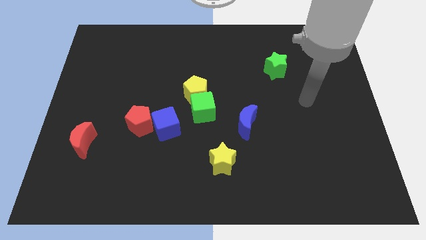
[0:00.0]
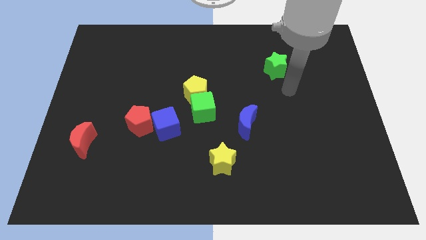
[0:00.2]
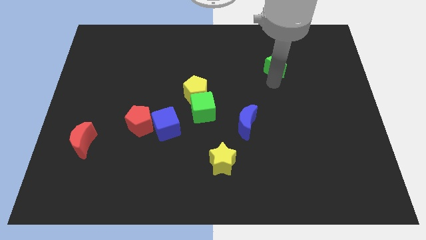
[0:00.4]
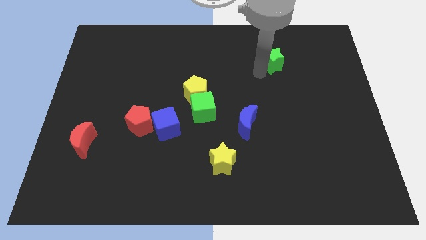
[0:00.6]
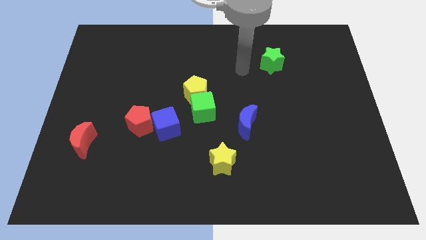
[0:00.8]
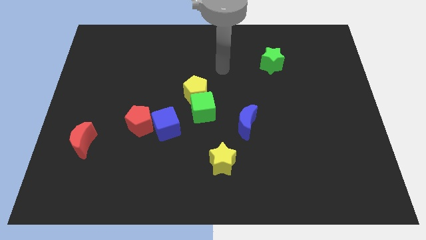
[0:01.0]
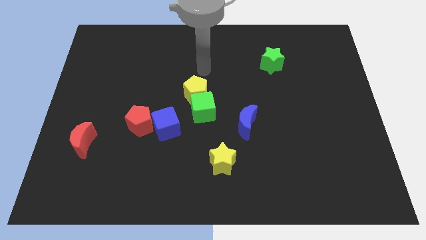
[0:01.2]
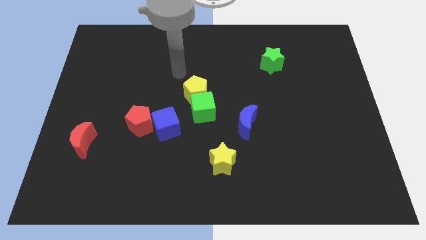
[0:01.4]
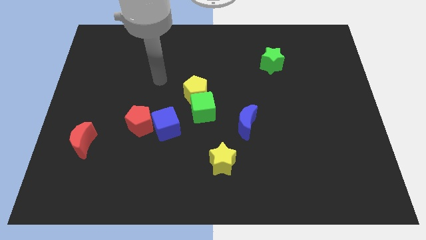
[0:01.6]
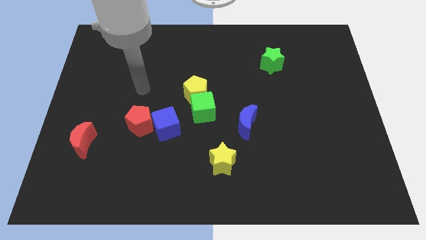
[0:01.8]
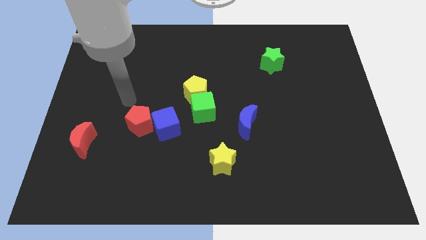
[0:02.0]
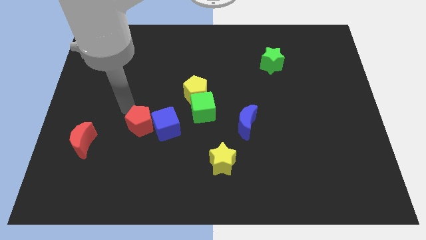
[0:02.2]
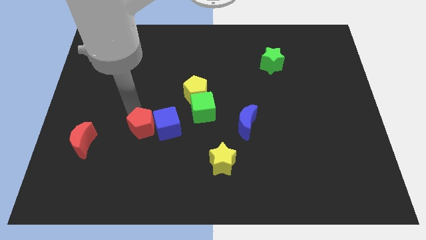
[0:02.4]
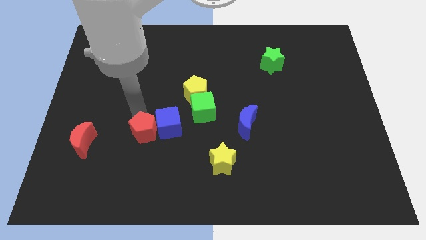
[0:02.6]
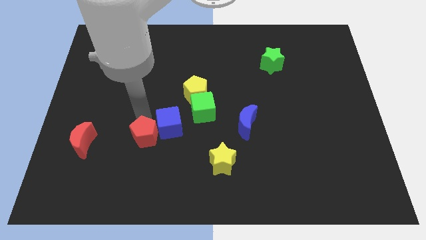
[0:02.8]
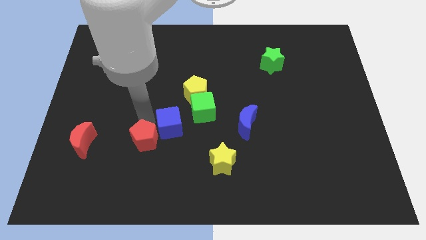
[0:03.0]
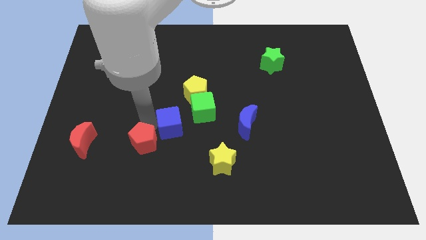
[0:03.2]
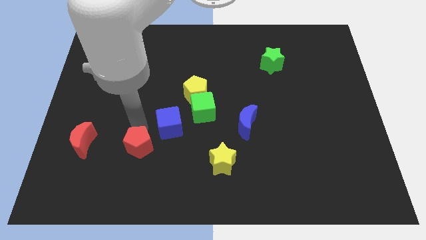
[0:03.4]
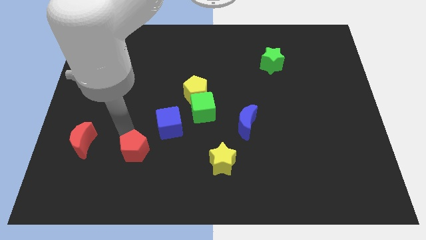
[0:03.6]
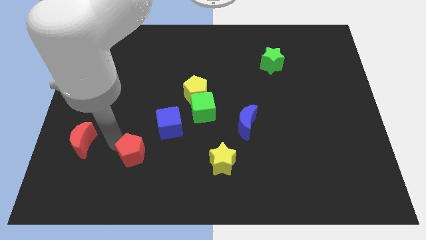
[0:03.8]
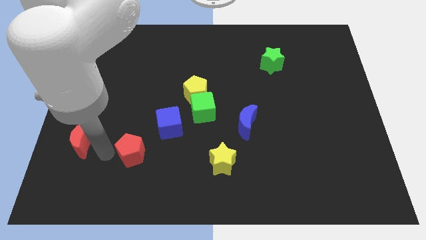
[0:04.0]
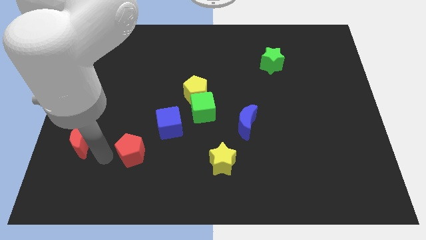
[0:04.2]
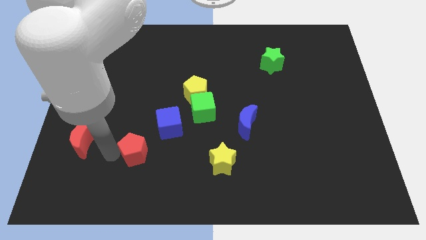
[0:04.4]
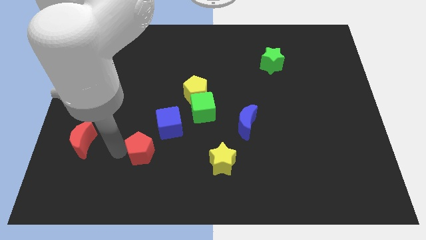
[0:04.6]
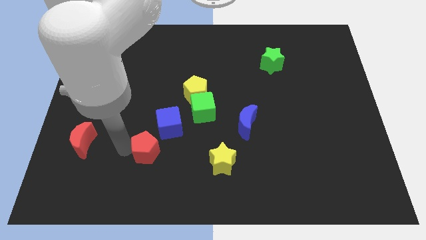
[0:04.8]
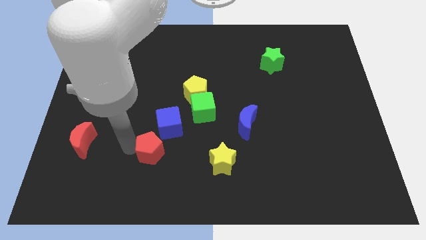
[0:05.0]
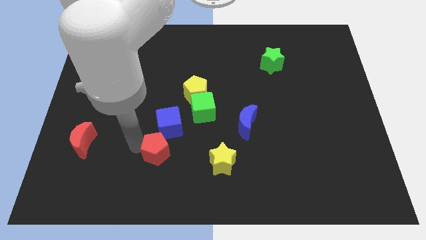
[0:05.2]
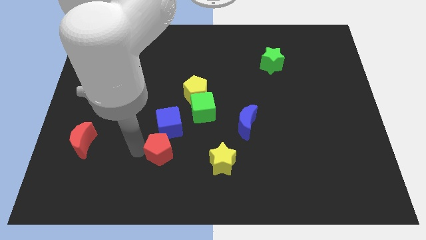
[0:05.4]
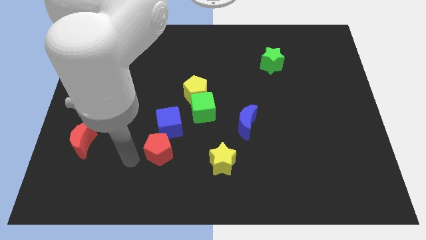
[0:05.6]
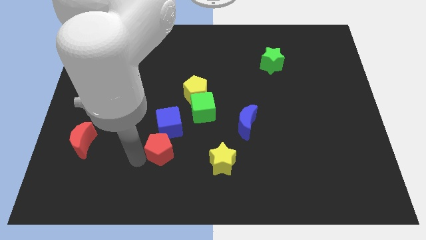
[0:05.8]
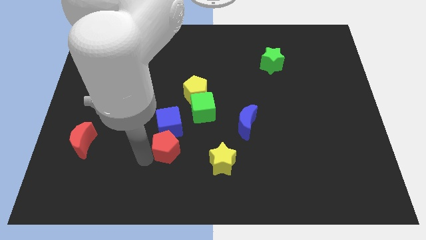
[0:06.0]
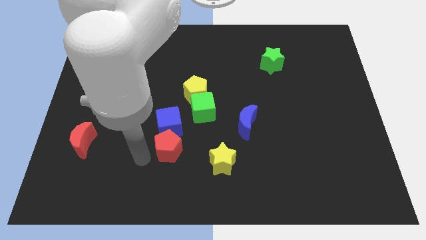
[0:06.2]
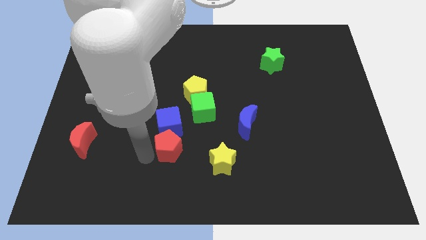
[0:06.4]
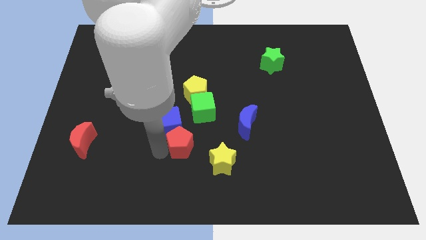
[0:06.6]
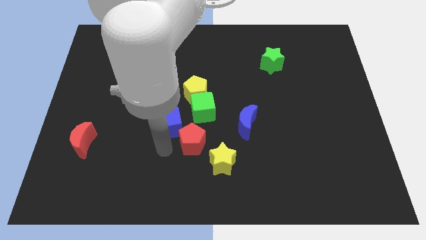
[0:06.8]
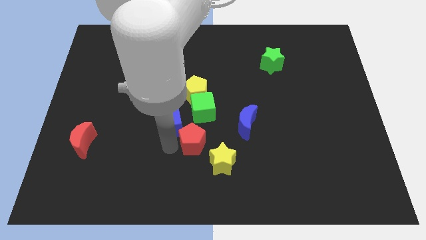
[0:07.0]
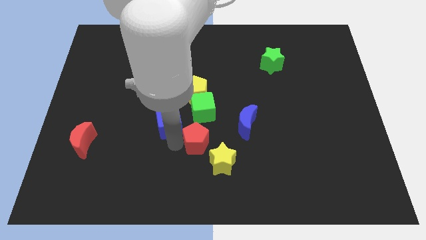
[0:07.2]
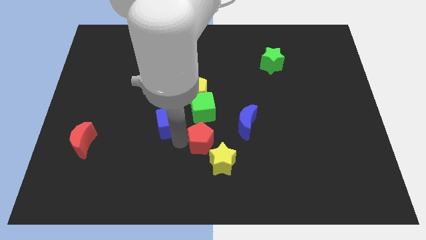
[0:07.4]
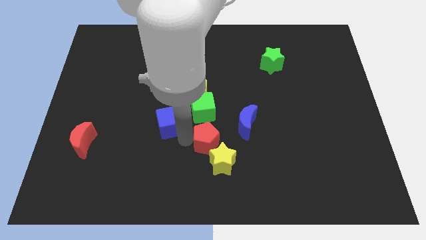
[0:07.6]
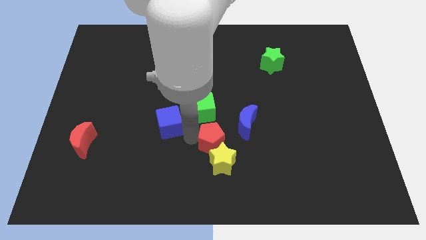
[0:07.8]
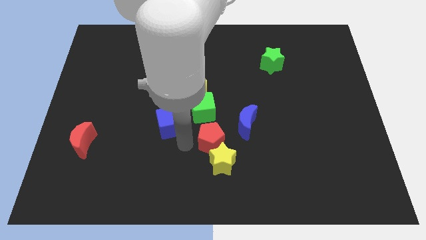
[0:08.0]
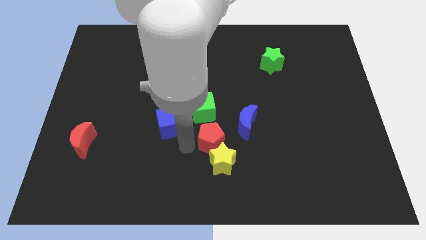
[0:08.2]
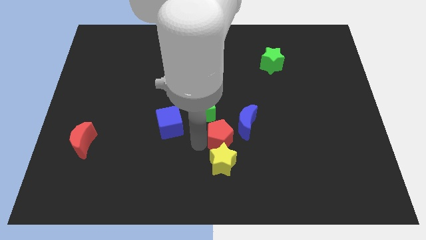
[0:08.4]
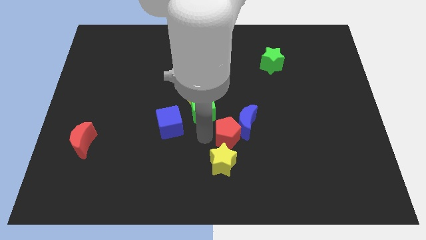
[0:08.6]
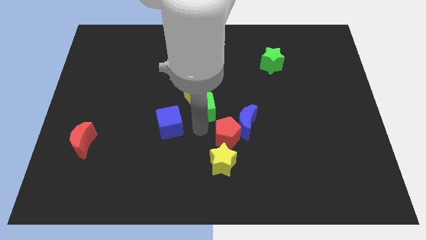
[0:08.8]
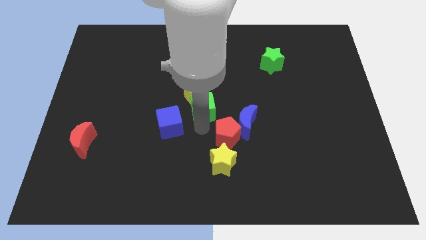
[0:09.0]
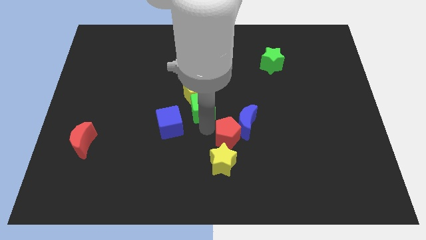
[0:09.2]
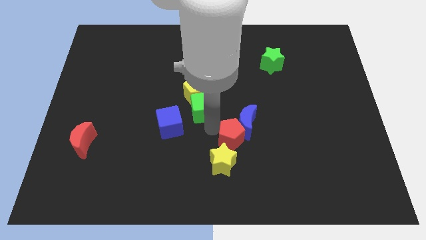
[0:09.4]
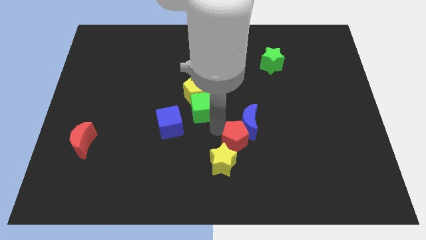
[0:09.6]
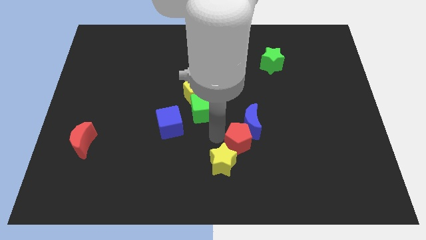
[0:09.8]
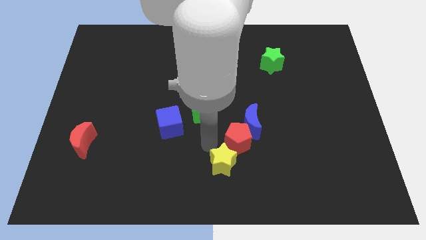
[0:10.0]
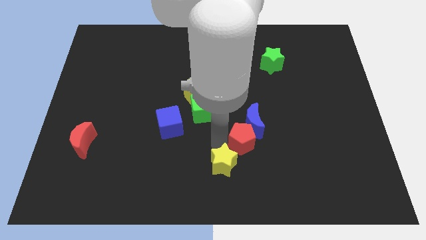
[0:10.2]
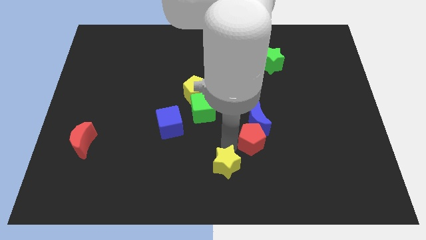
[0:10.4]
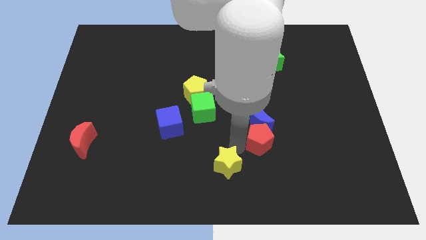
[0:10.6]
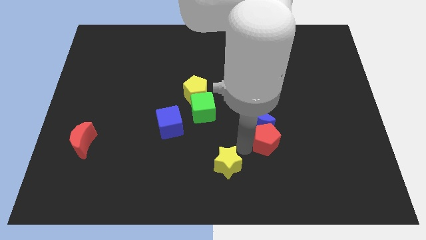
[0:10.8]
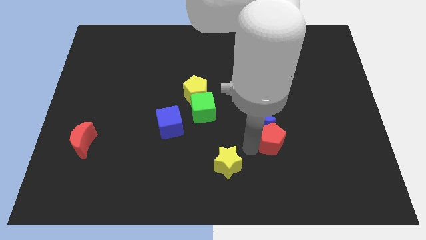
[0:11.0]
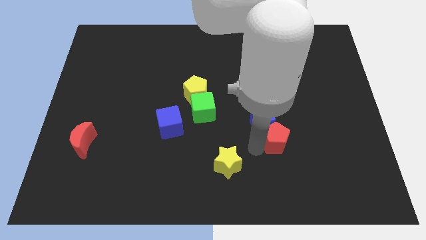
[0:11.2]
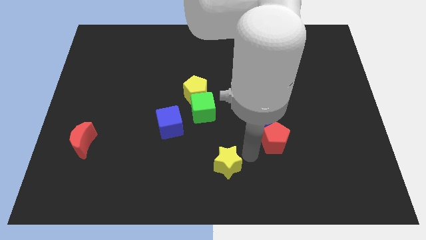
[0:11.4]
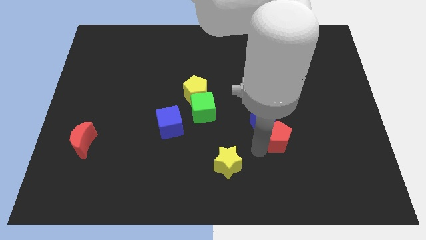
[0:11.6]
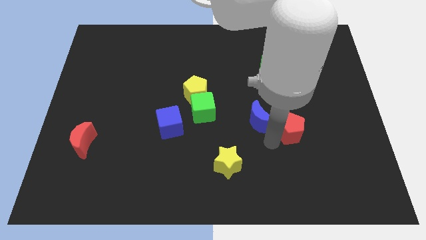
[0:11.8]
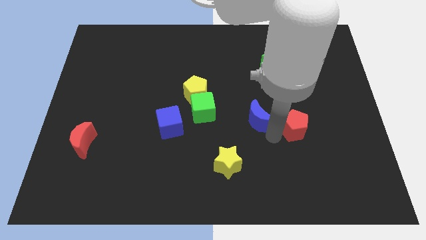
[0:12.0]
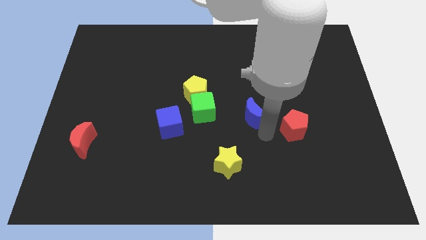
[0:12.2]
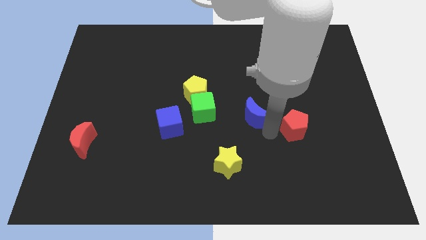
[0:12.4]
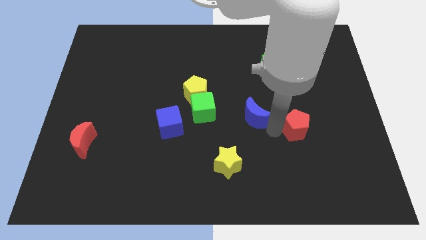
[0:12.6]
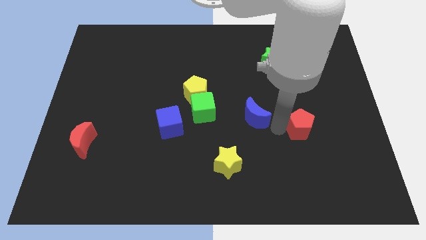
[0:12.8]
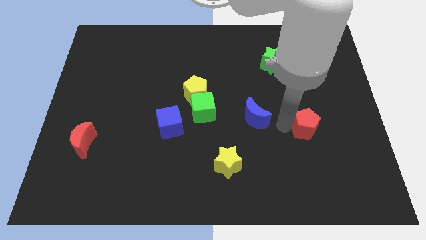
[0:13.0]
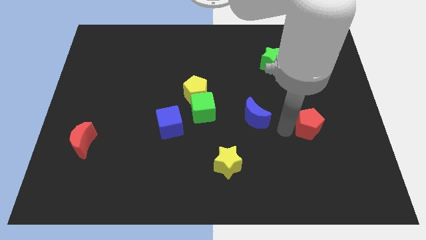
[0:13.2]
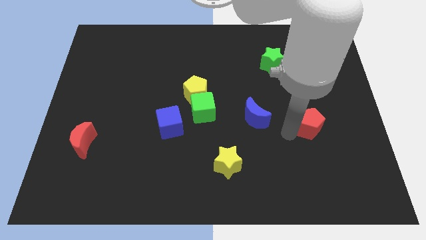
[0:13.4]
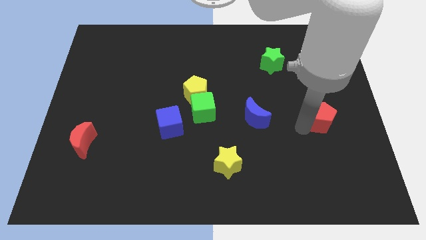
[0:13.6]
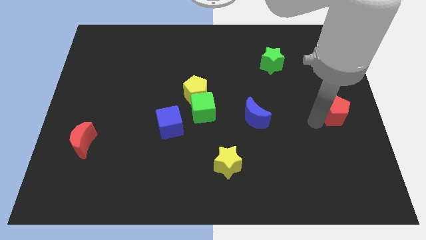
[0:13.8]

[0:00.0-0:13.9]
move the red pentagon to the right side

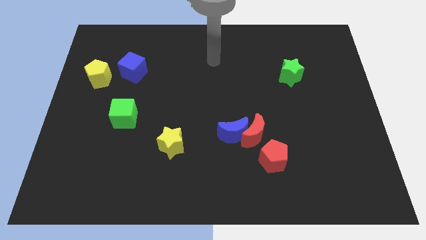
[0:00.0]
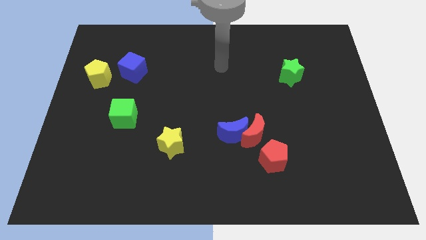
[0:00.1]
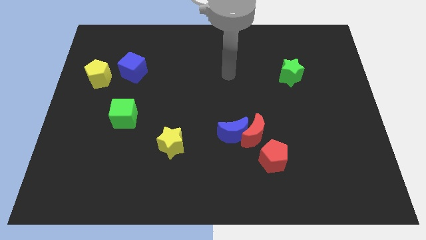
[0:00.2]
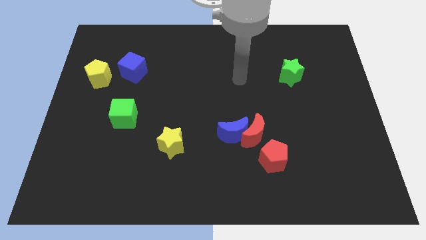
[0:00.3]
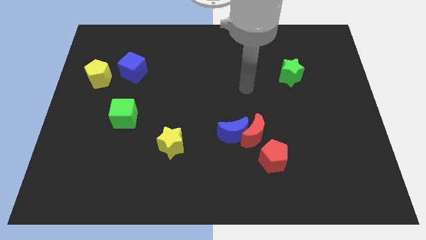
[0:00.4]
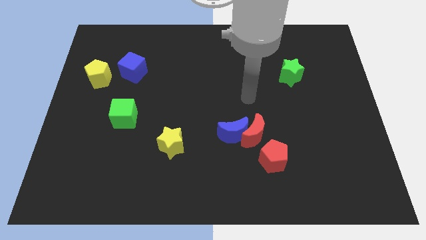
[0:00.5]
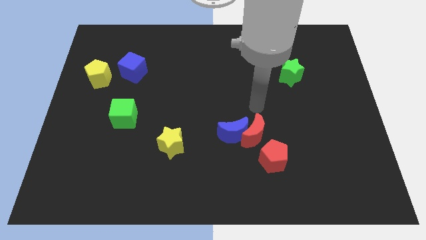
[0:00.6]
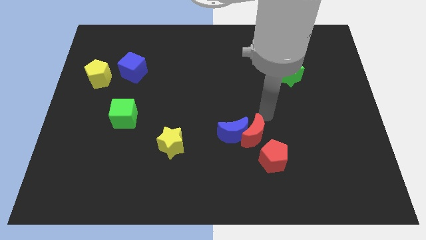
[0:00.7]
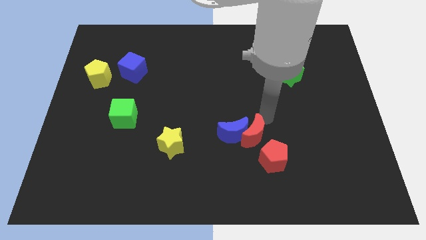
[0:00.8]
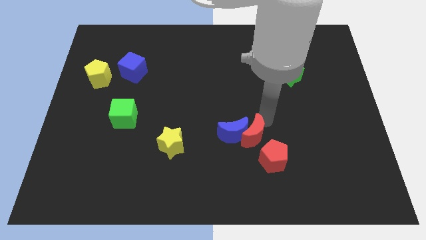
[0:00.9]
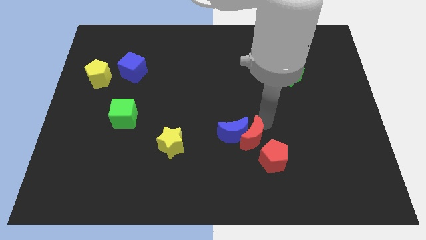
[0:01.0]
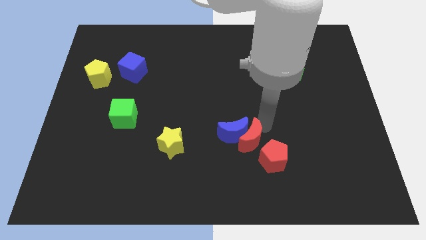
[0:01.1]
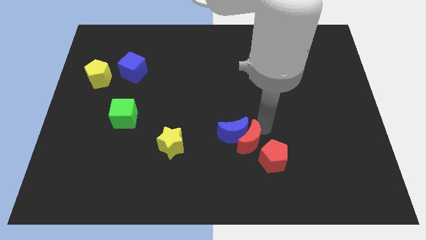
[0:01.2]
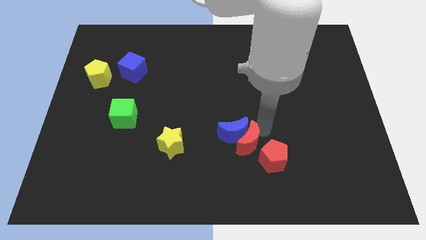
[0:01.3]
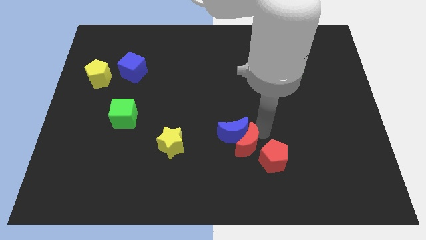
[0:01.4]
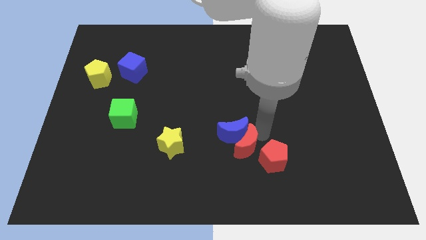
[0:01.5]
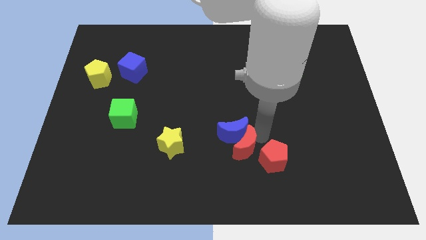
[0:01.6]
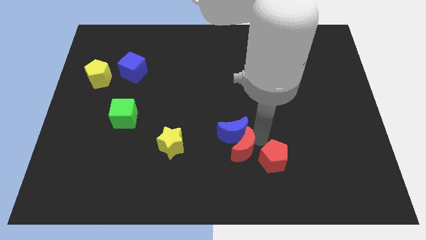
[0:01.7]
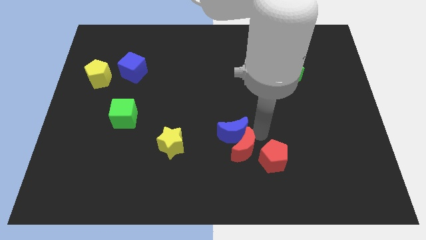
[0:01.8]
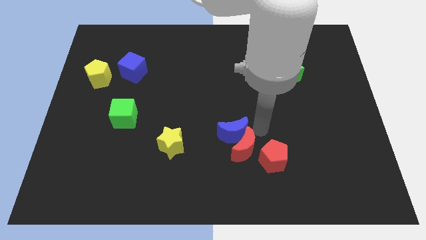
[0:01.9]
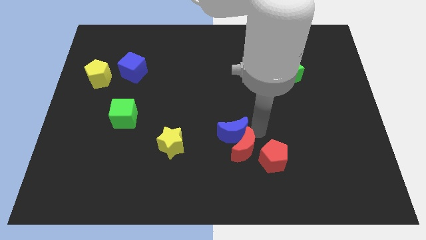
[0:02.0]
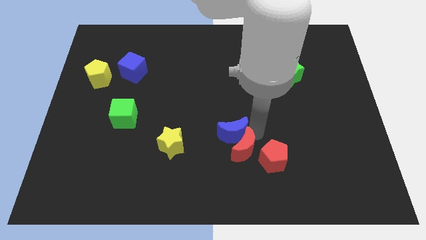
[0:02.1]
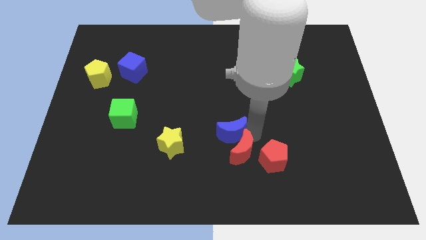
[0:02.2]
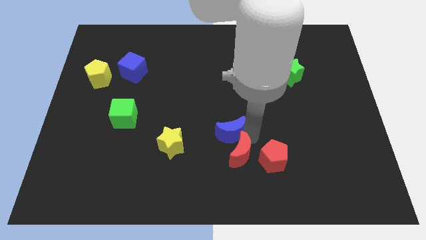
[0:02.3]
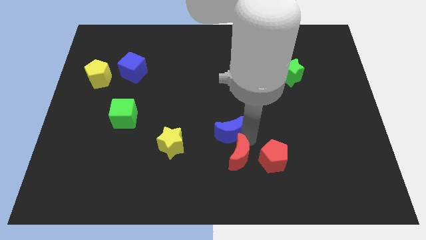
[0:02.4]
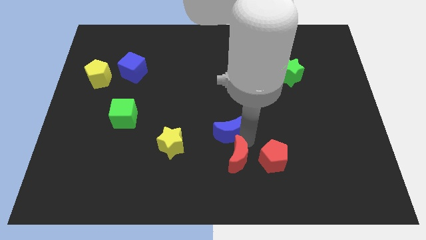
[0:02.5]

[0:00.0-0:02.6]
move the red moon to the bottom side
